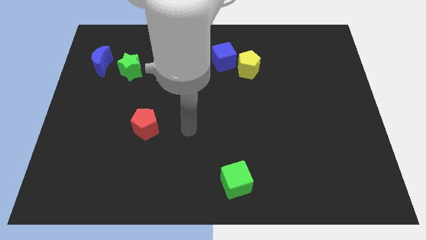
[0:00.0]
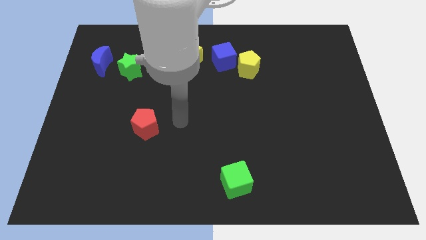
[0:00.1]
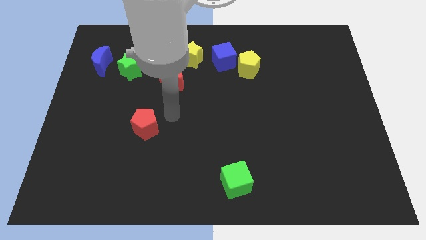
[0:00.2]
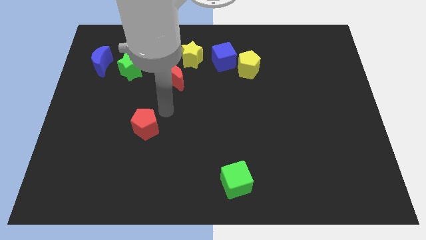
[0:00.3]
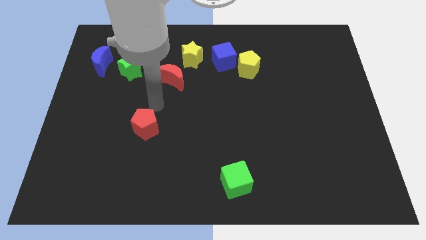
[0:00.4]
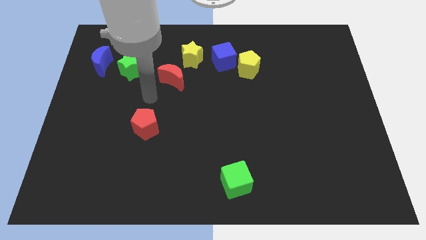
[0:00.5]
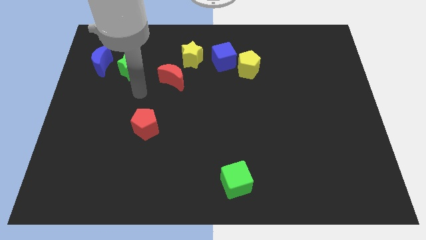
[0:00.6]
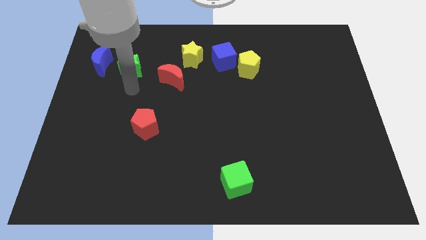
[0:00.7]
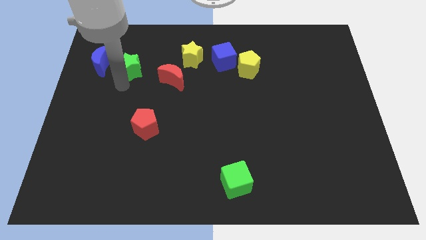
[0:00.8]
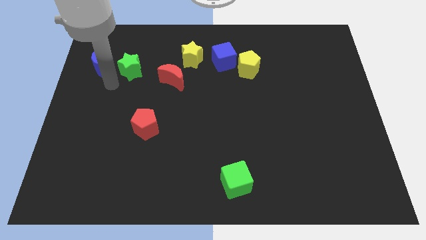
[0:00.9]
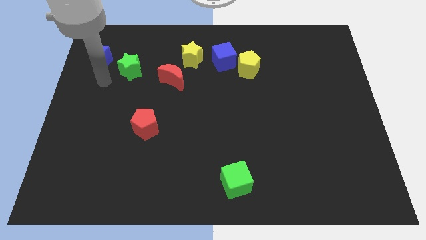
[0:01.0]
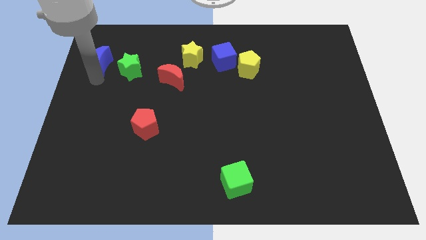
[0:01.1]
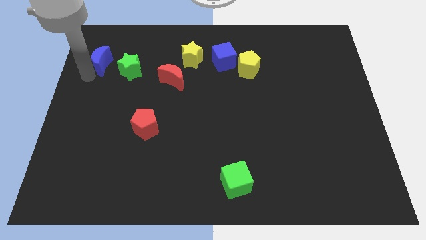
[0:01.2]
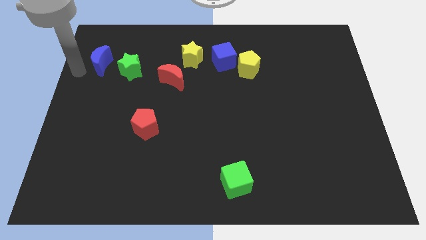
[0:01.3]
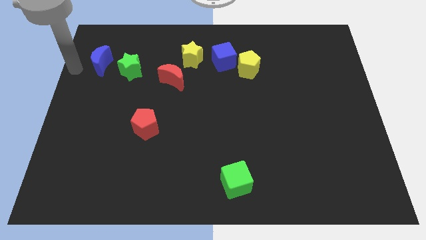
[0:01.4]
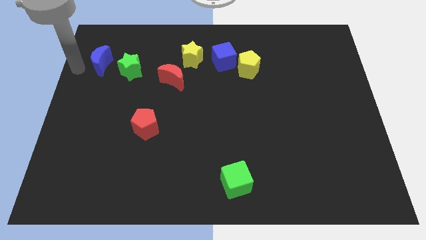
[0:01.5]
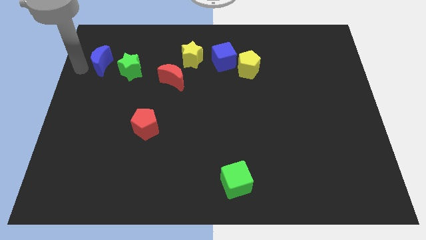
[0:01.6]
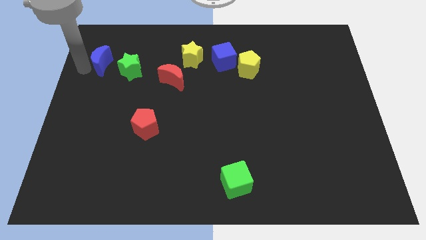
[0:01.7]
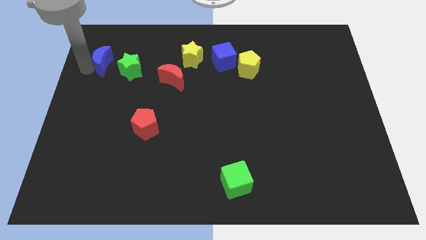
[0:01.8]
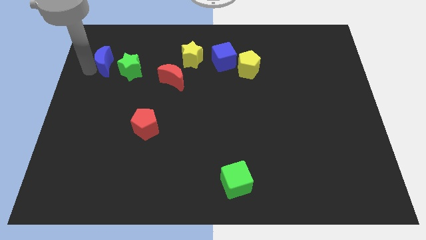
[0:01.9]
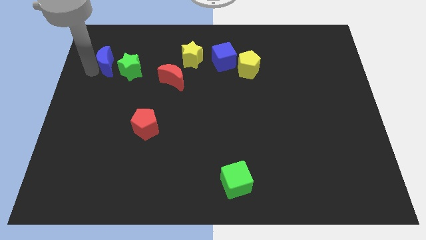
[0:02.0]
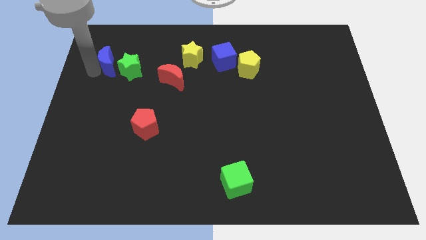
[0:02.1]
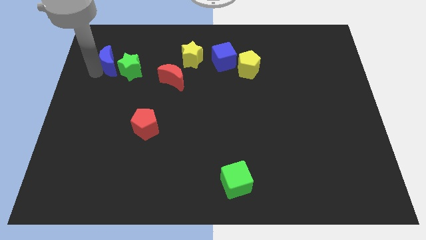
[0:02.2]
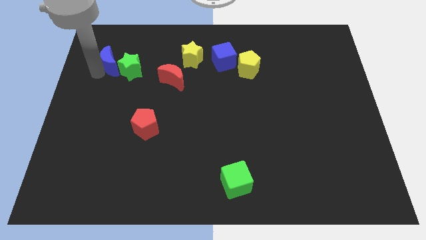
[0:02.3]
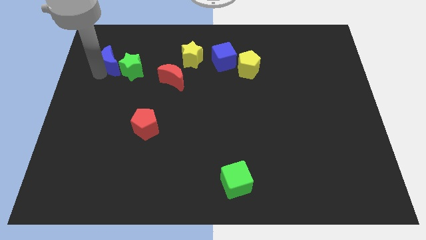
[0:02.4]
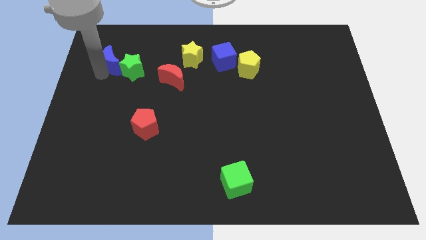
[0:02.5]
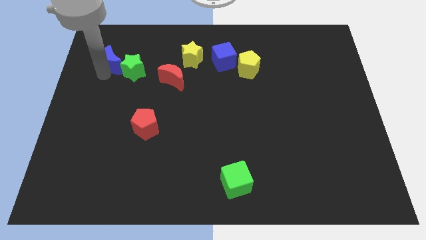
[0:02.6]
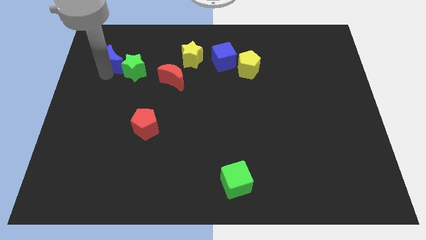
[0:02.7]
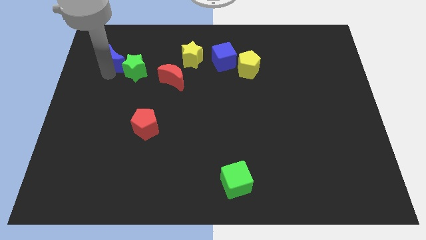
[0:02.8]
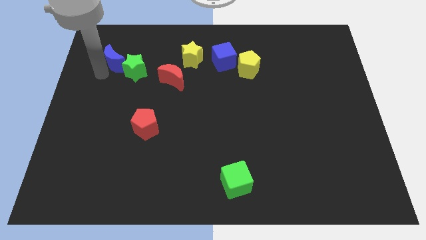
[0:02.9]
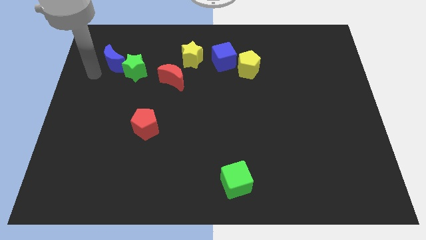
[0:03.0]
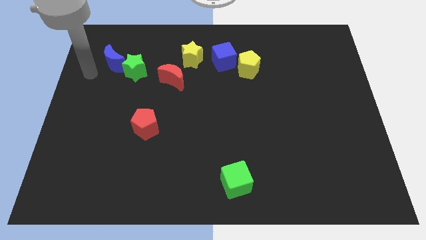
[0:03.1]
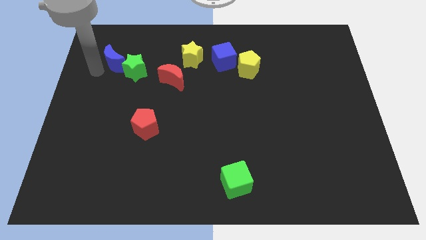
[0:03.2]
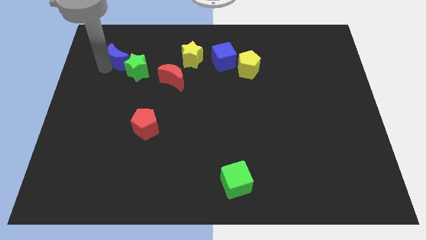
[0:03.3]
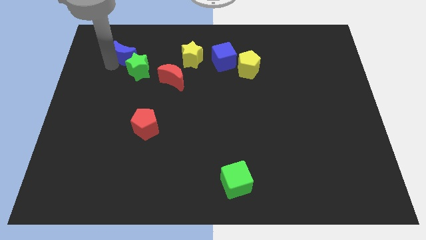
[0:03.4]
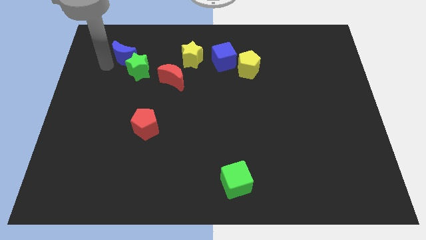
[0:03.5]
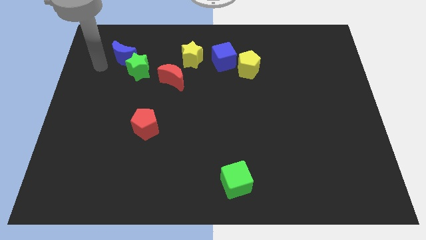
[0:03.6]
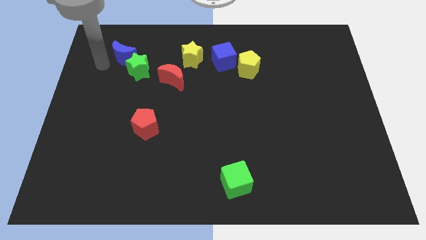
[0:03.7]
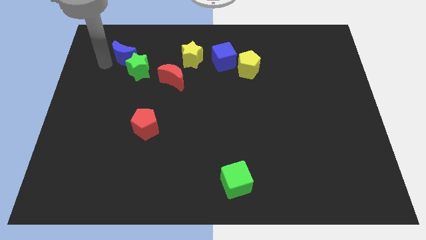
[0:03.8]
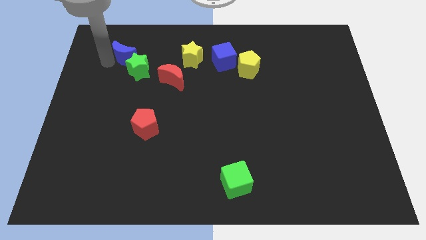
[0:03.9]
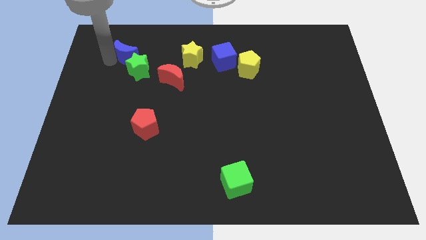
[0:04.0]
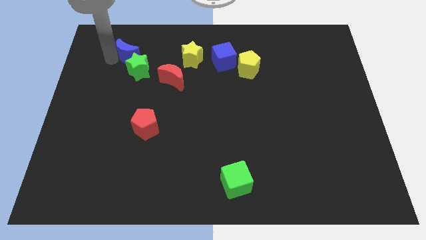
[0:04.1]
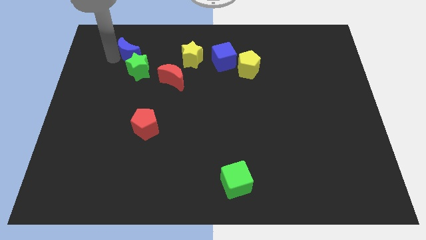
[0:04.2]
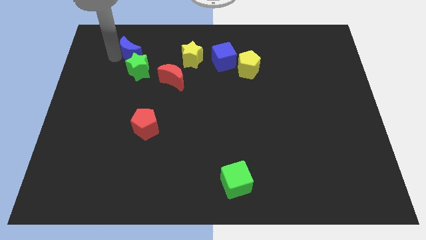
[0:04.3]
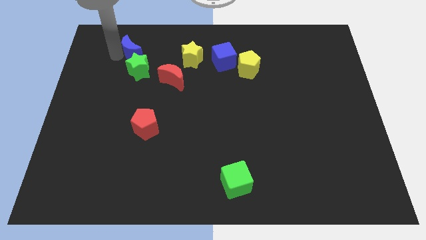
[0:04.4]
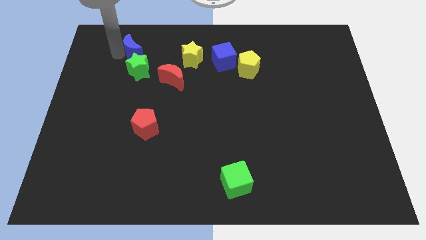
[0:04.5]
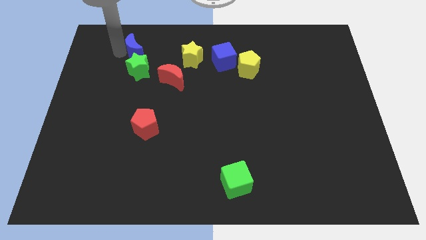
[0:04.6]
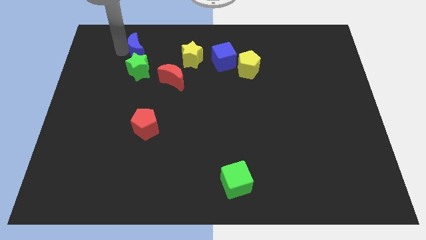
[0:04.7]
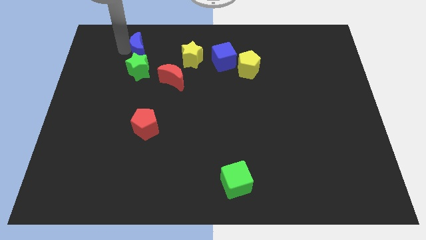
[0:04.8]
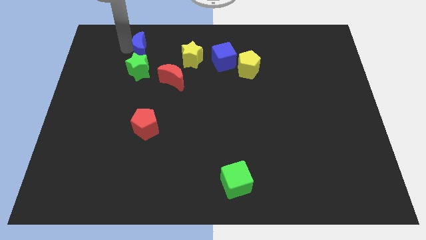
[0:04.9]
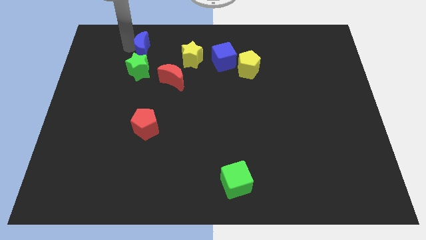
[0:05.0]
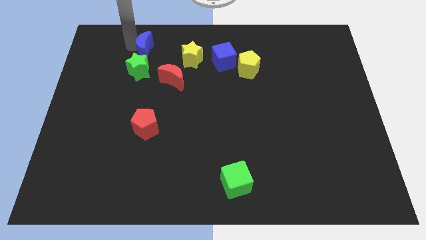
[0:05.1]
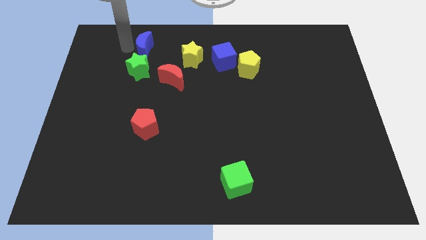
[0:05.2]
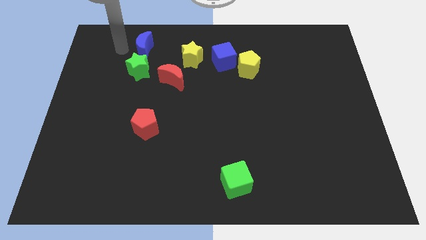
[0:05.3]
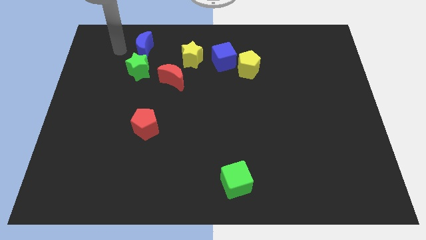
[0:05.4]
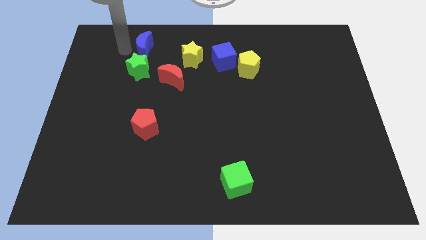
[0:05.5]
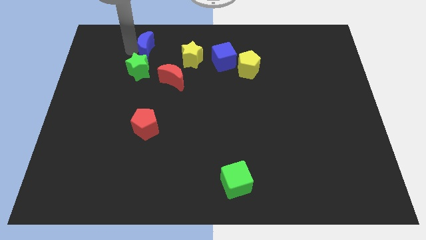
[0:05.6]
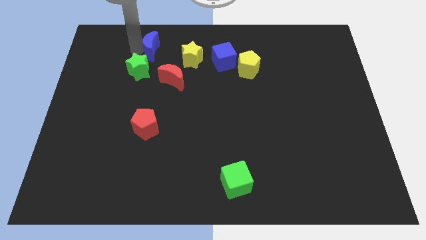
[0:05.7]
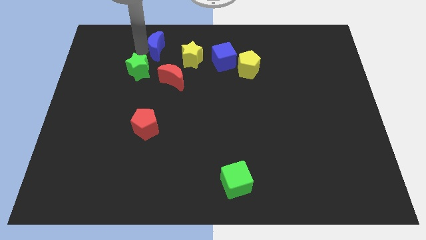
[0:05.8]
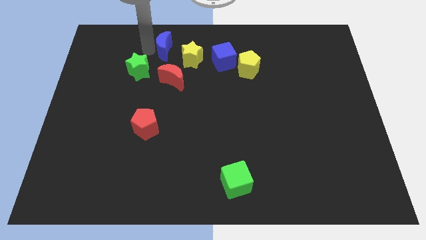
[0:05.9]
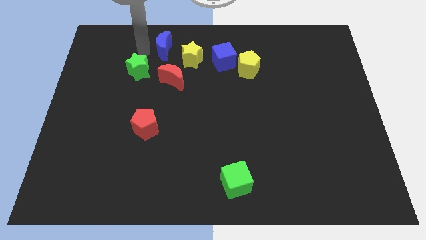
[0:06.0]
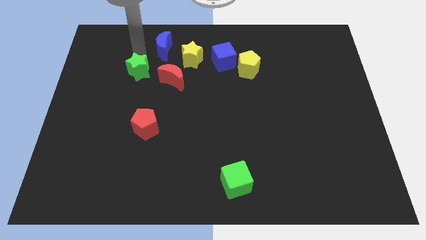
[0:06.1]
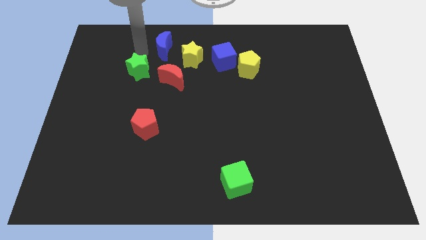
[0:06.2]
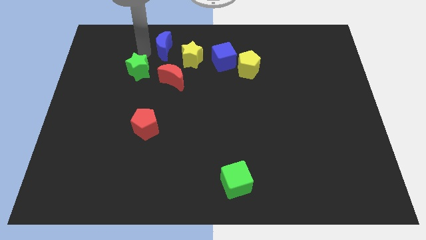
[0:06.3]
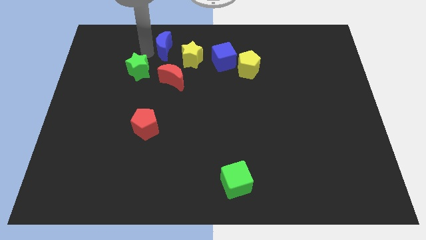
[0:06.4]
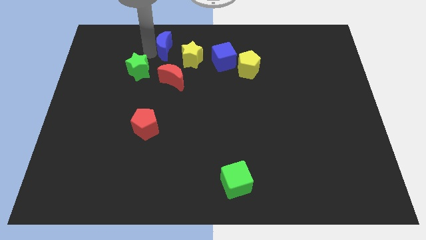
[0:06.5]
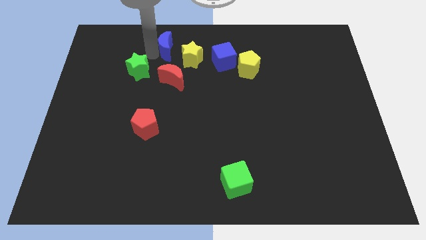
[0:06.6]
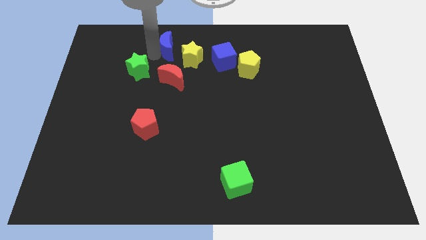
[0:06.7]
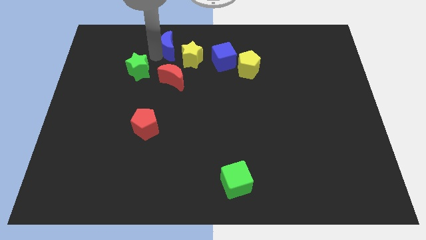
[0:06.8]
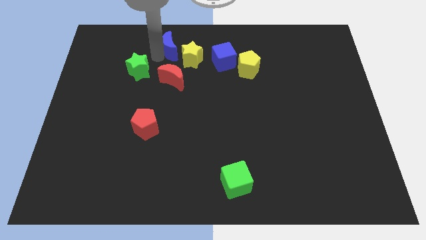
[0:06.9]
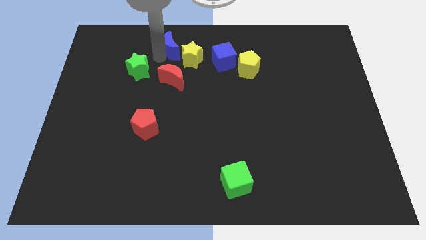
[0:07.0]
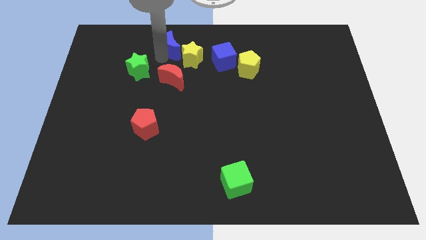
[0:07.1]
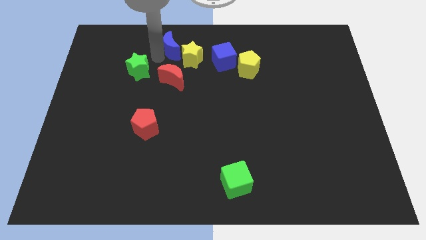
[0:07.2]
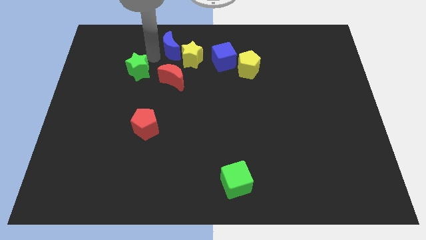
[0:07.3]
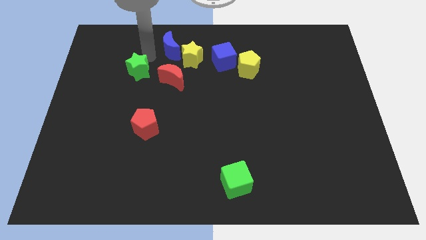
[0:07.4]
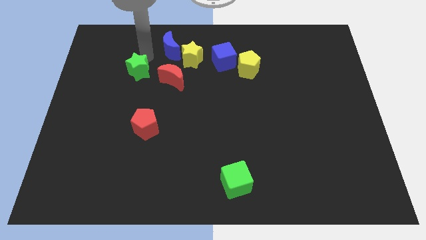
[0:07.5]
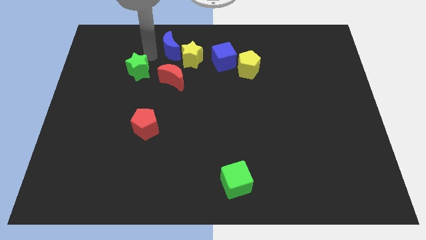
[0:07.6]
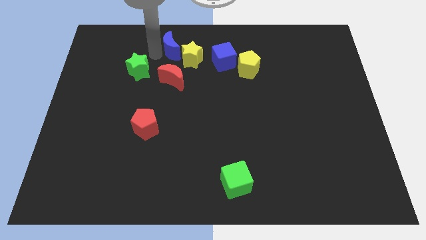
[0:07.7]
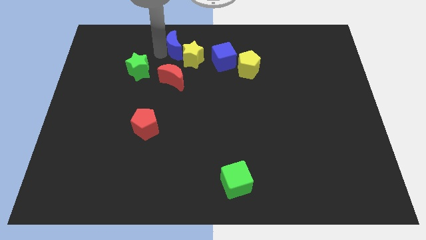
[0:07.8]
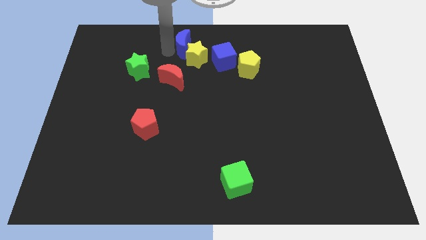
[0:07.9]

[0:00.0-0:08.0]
put the blue moon to the towards your base
